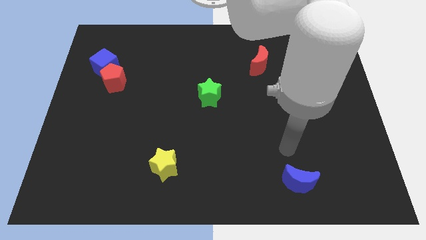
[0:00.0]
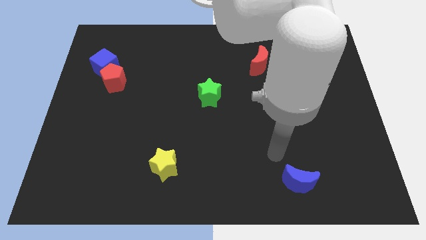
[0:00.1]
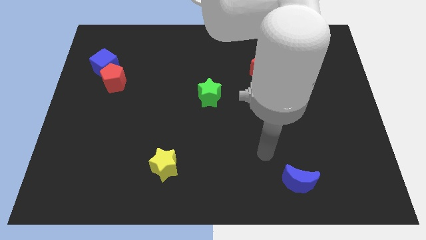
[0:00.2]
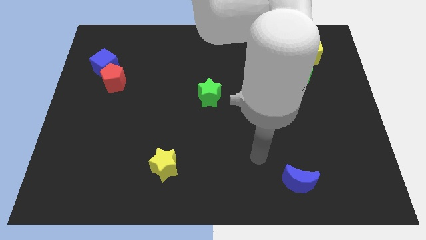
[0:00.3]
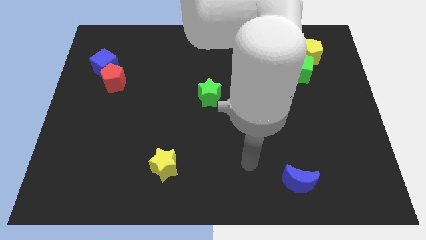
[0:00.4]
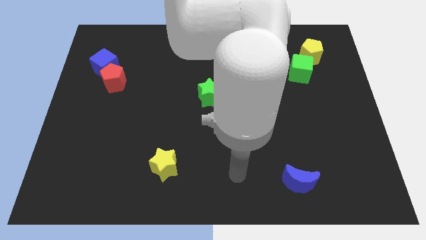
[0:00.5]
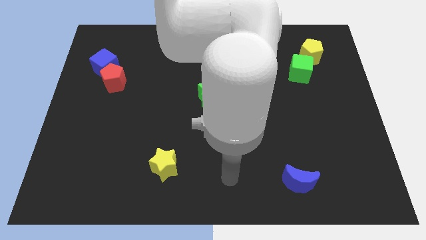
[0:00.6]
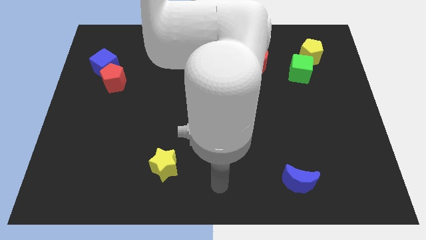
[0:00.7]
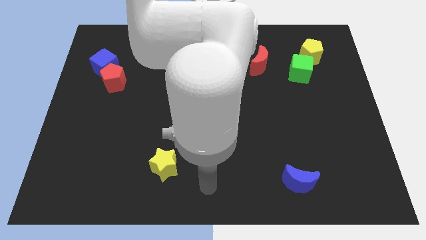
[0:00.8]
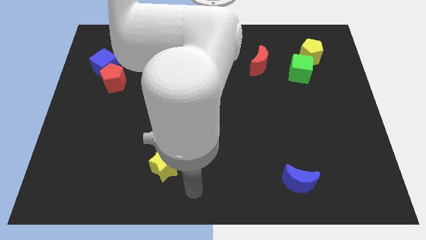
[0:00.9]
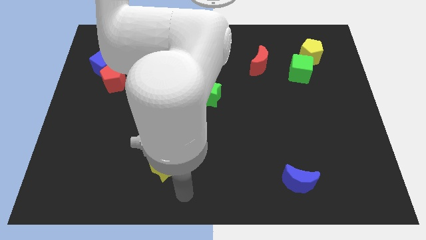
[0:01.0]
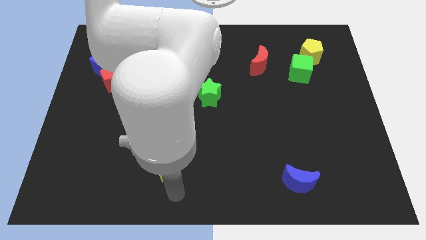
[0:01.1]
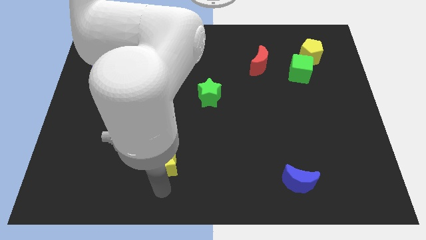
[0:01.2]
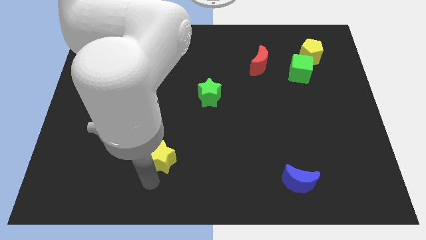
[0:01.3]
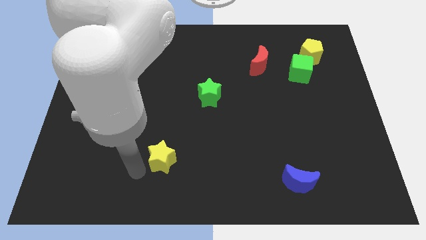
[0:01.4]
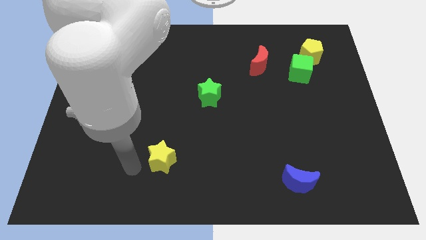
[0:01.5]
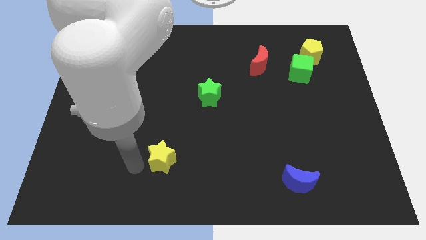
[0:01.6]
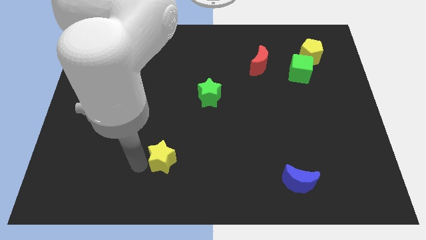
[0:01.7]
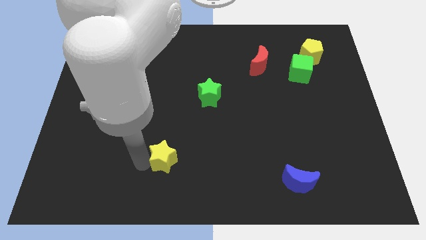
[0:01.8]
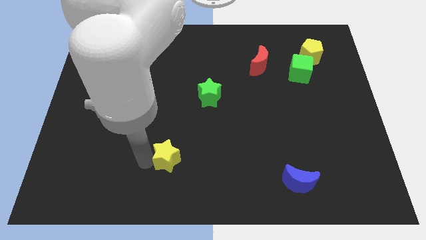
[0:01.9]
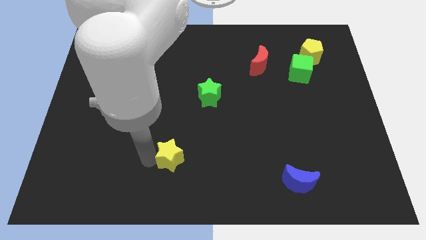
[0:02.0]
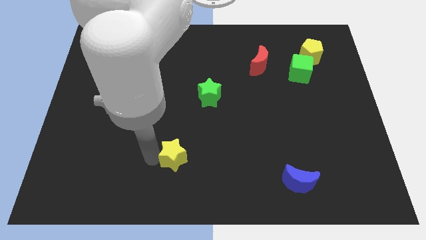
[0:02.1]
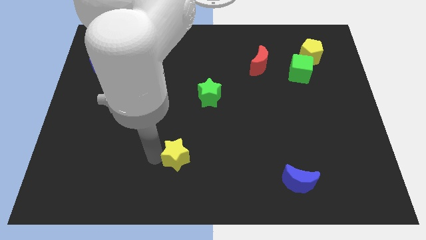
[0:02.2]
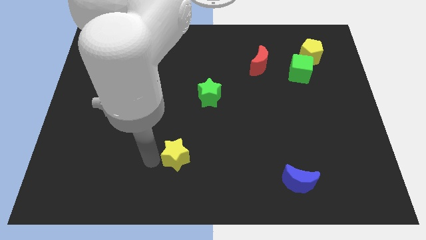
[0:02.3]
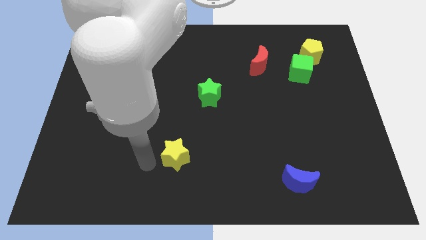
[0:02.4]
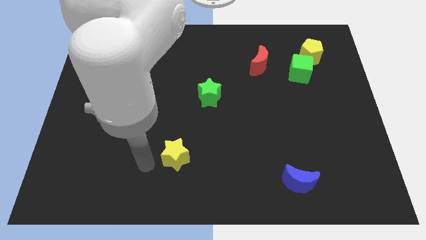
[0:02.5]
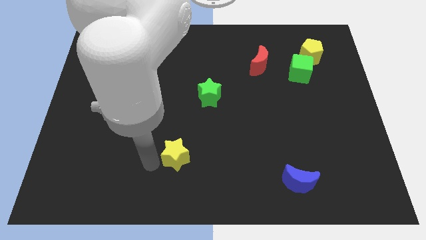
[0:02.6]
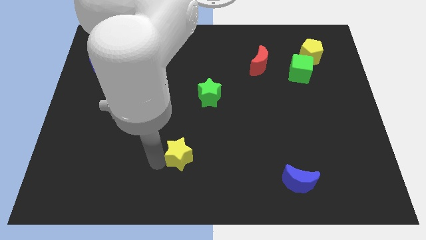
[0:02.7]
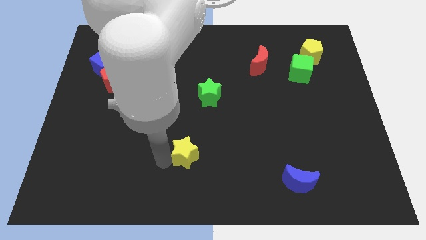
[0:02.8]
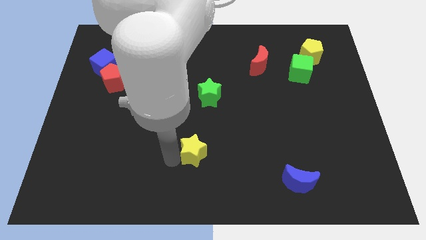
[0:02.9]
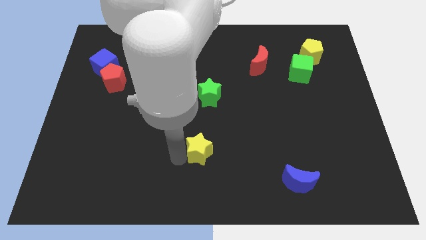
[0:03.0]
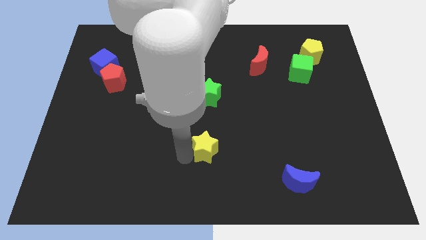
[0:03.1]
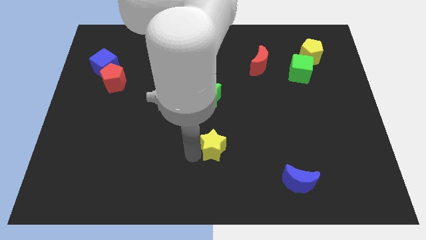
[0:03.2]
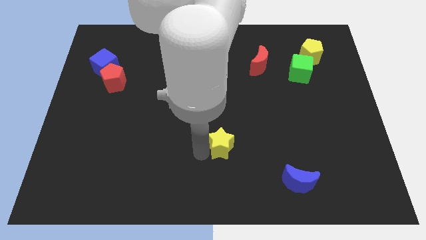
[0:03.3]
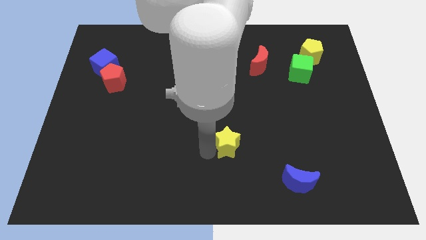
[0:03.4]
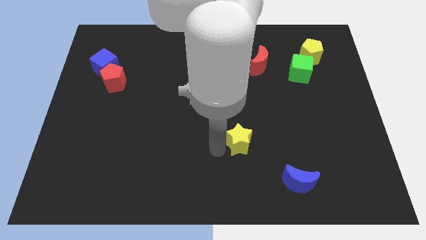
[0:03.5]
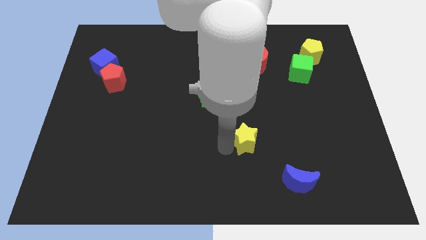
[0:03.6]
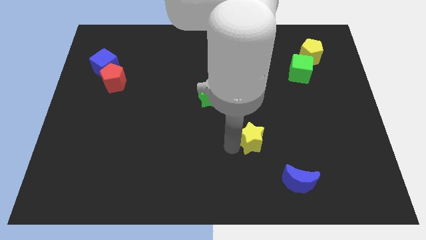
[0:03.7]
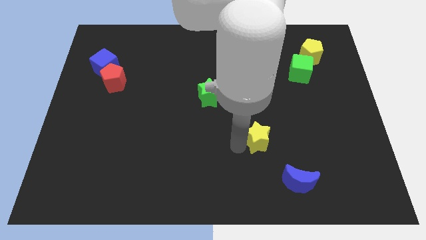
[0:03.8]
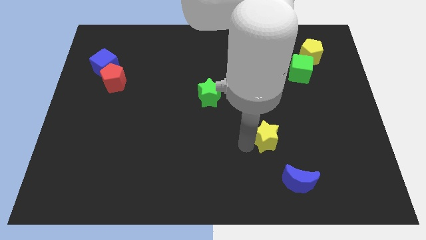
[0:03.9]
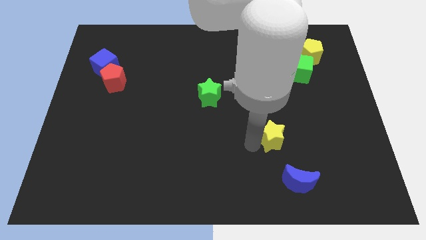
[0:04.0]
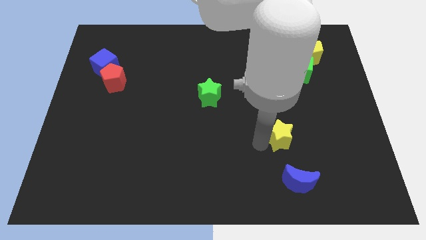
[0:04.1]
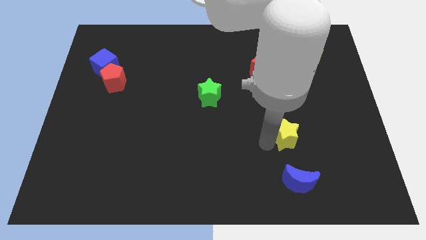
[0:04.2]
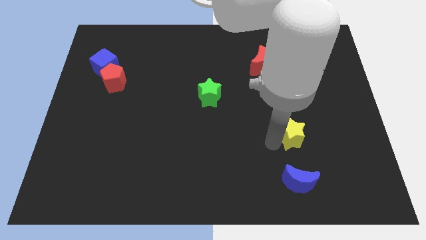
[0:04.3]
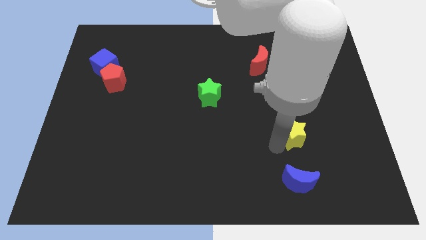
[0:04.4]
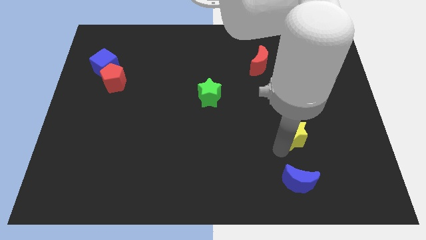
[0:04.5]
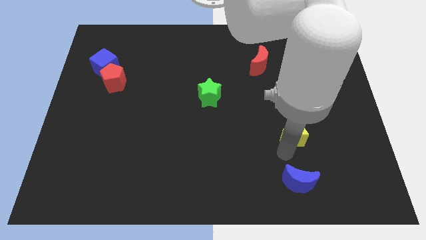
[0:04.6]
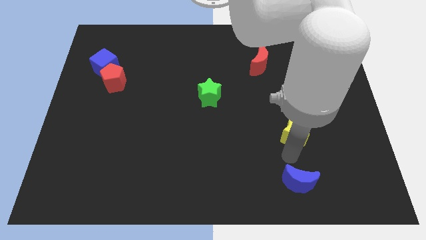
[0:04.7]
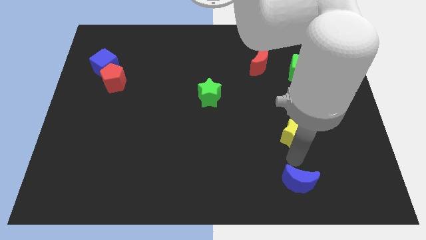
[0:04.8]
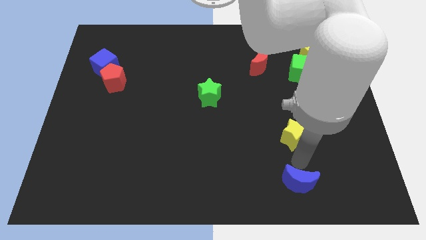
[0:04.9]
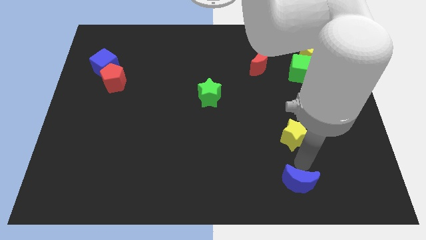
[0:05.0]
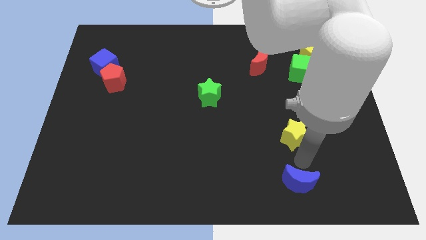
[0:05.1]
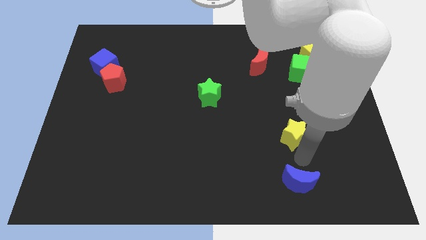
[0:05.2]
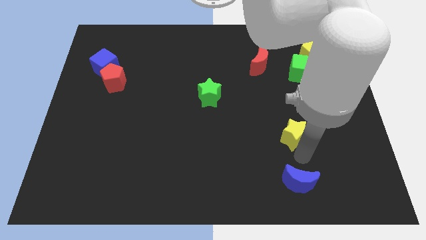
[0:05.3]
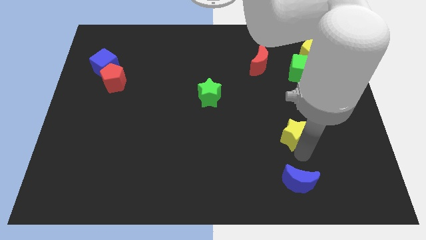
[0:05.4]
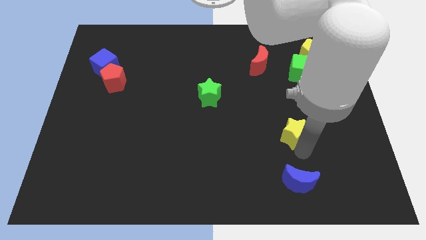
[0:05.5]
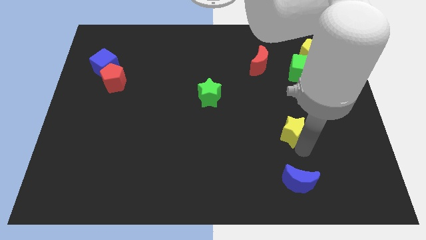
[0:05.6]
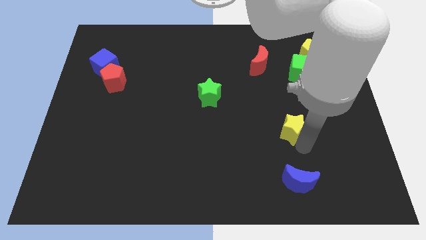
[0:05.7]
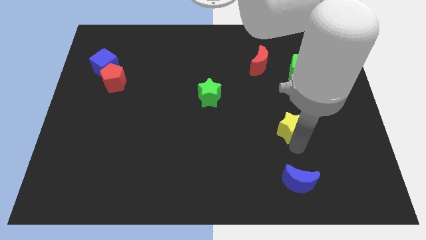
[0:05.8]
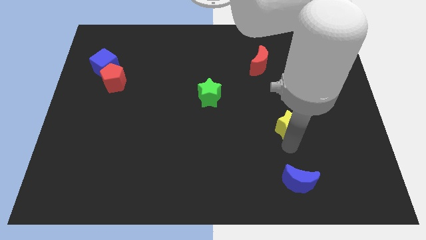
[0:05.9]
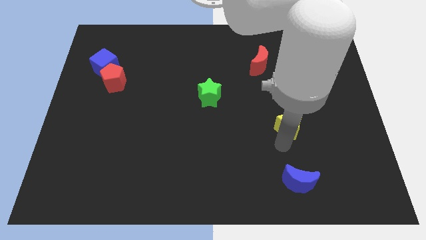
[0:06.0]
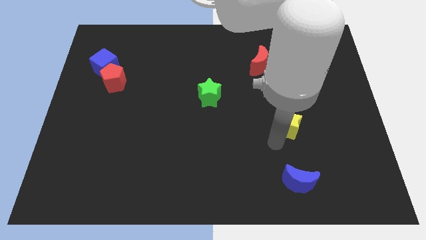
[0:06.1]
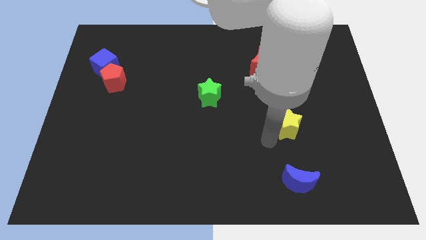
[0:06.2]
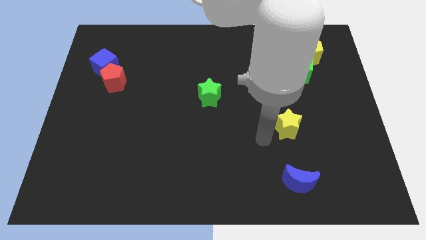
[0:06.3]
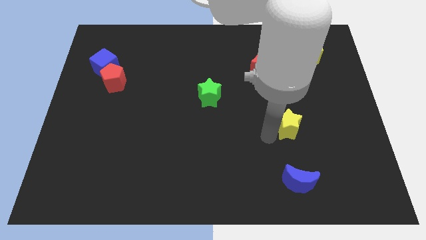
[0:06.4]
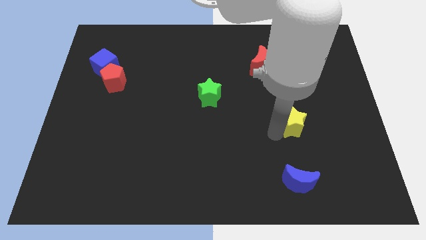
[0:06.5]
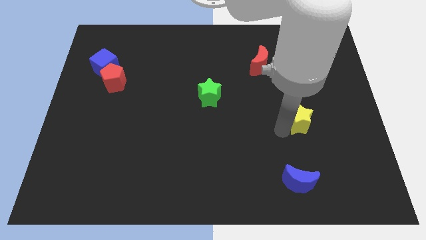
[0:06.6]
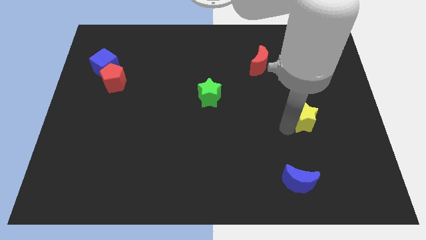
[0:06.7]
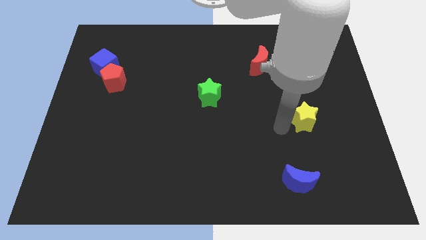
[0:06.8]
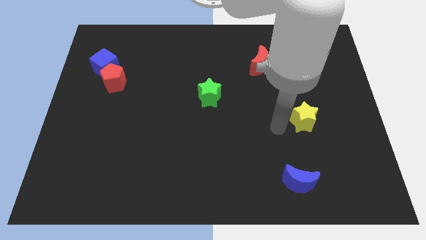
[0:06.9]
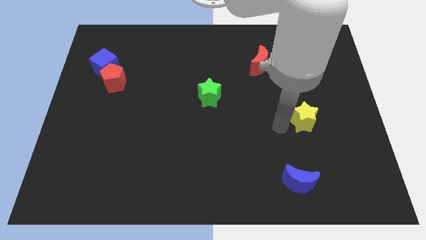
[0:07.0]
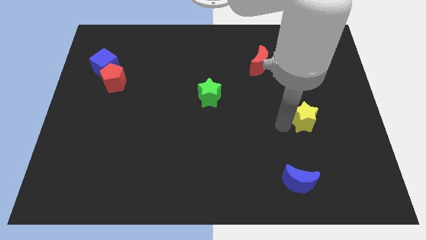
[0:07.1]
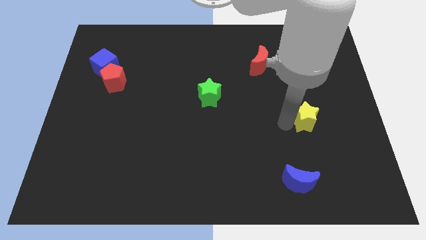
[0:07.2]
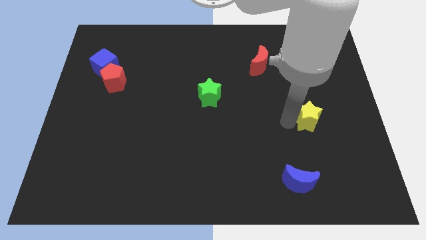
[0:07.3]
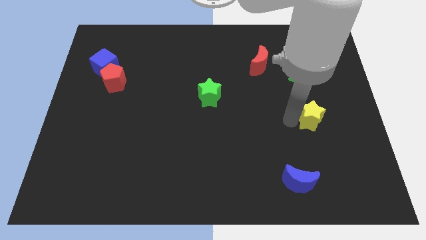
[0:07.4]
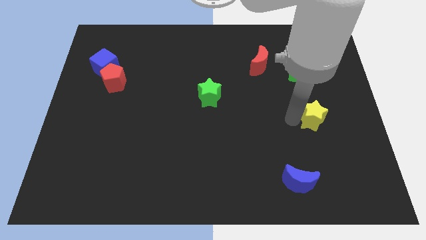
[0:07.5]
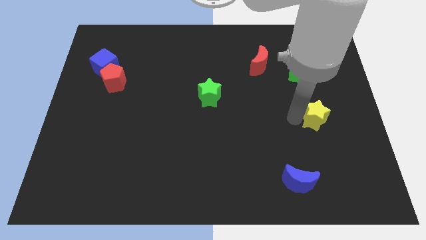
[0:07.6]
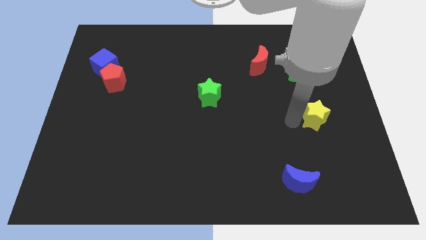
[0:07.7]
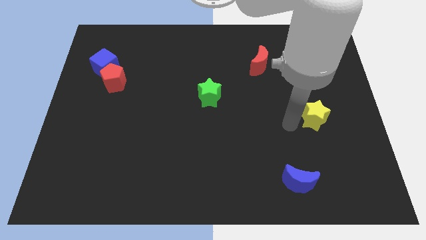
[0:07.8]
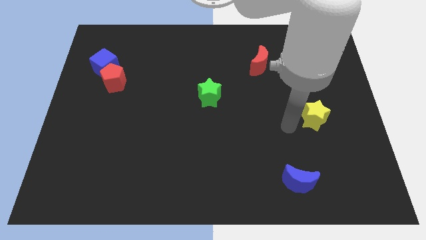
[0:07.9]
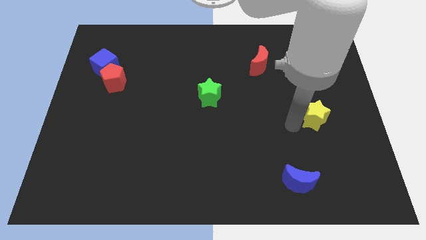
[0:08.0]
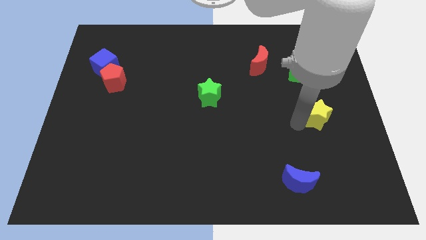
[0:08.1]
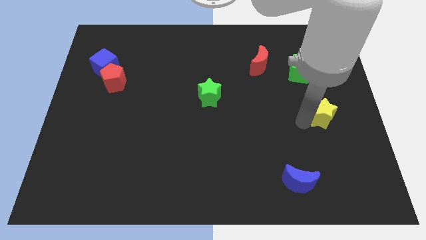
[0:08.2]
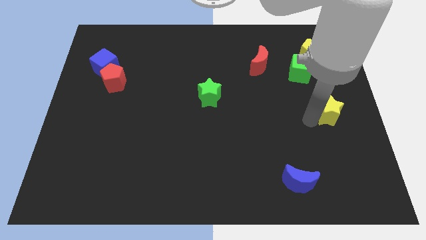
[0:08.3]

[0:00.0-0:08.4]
push the yellow star to the right side
